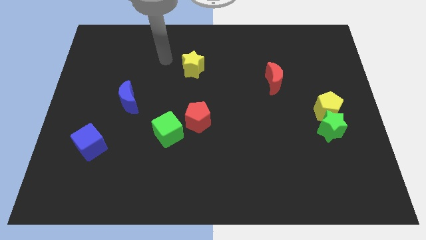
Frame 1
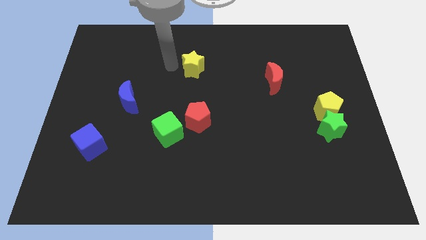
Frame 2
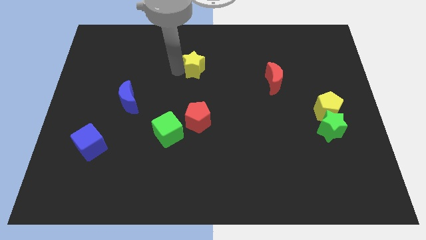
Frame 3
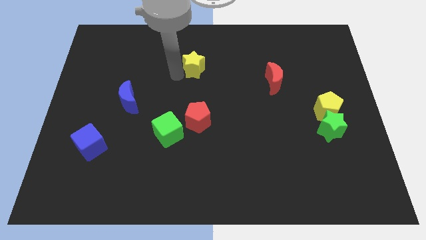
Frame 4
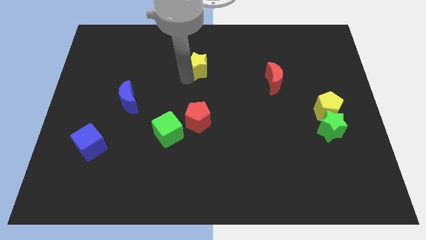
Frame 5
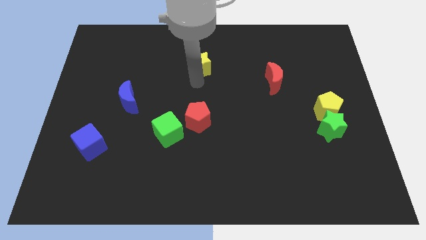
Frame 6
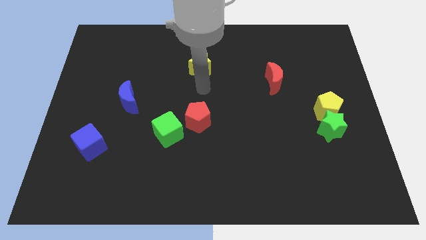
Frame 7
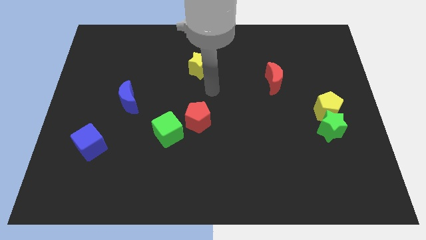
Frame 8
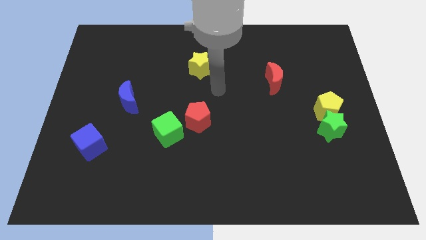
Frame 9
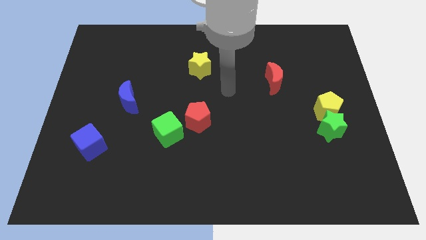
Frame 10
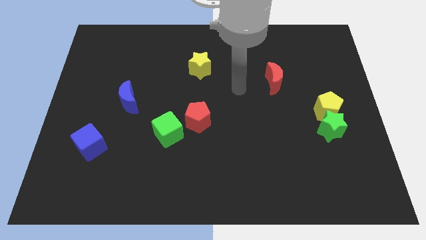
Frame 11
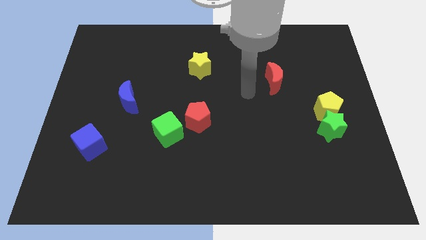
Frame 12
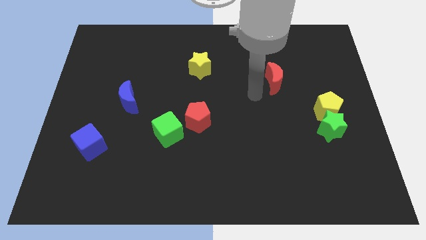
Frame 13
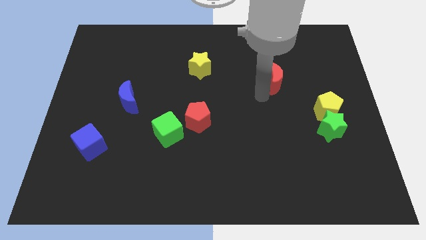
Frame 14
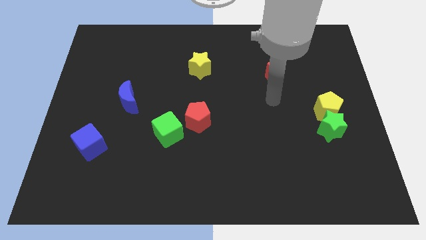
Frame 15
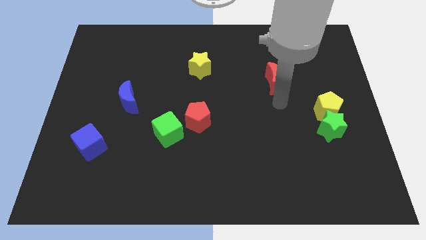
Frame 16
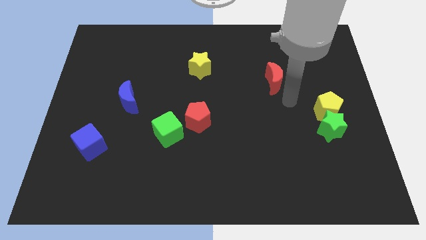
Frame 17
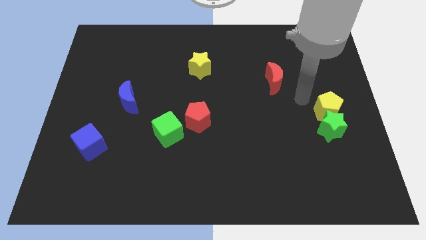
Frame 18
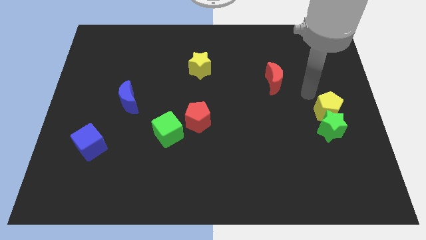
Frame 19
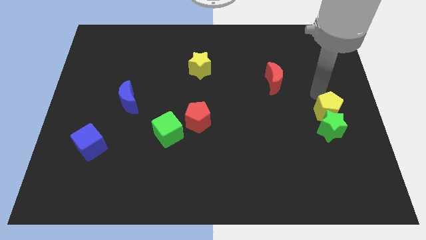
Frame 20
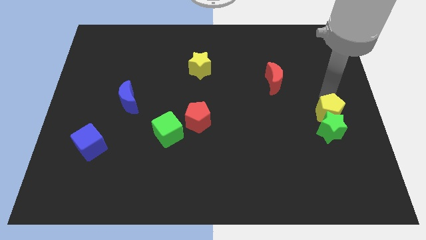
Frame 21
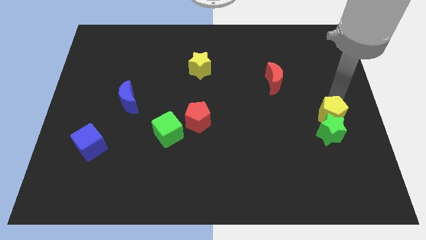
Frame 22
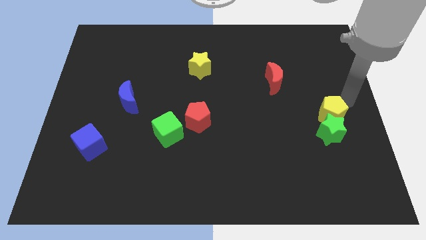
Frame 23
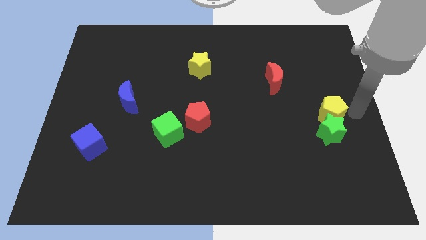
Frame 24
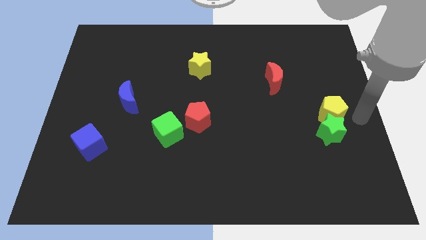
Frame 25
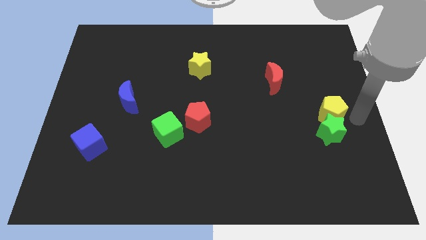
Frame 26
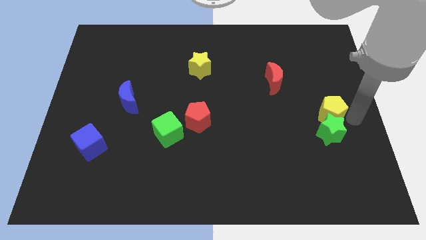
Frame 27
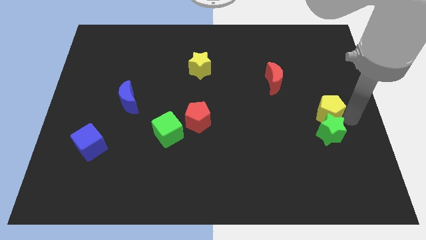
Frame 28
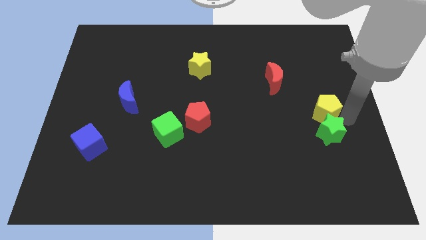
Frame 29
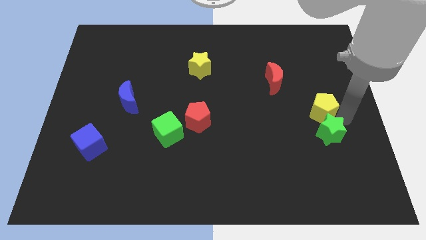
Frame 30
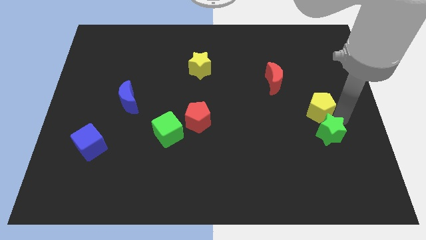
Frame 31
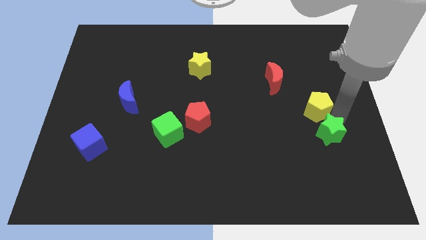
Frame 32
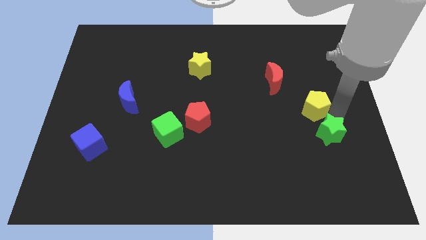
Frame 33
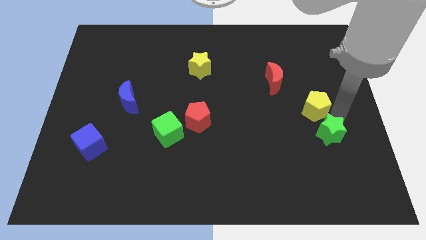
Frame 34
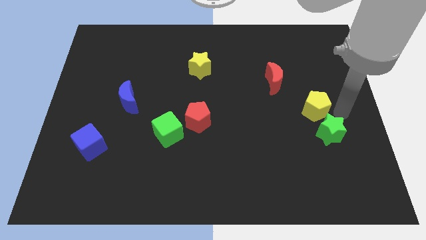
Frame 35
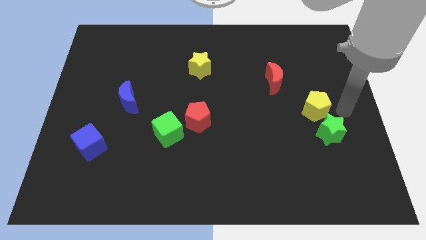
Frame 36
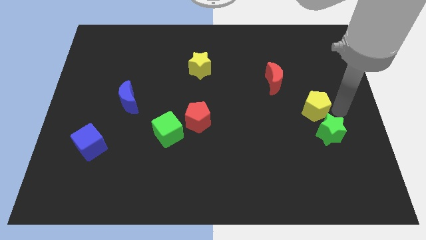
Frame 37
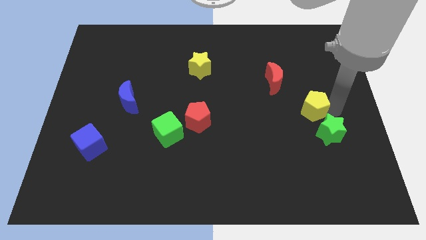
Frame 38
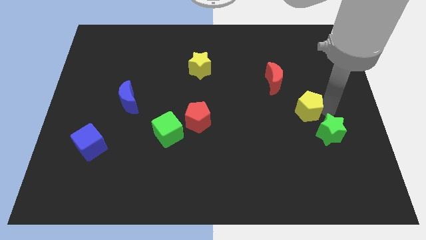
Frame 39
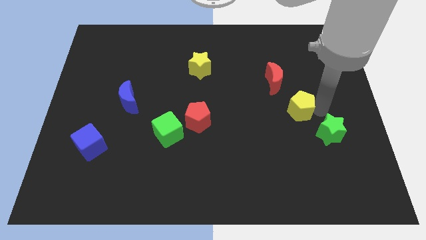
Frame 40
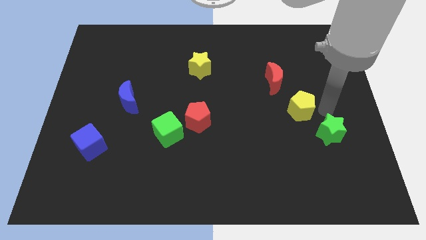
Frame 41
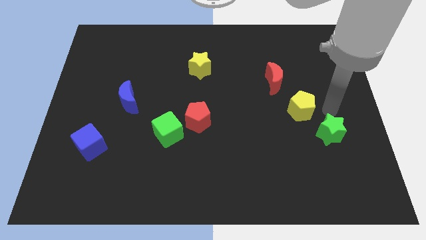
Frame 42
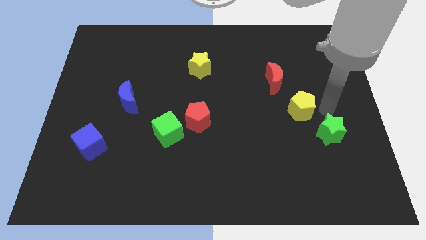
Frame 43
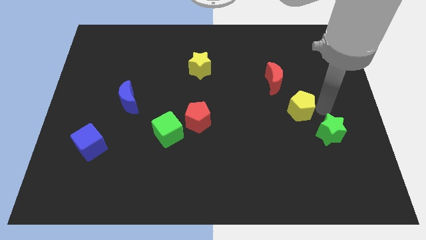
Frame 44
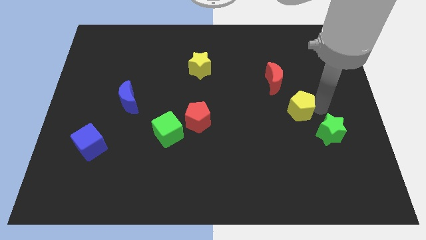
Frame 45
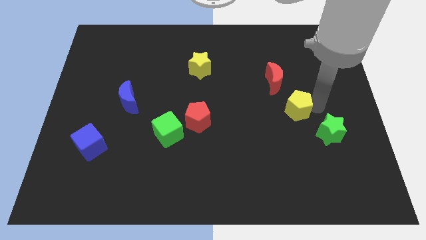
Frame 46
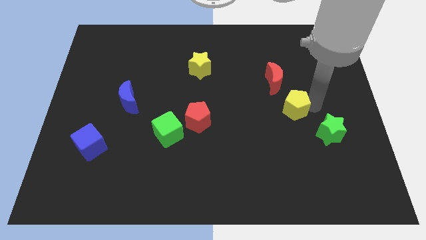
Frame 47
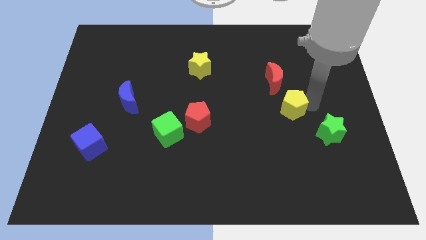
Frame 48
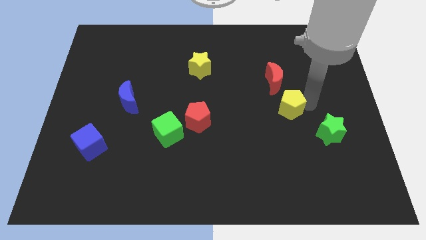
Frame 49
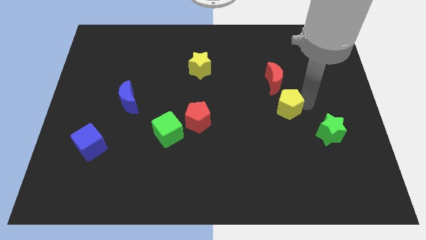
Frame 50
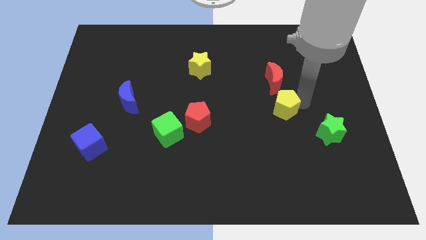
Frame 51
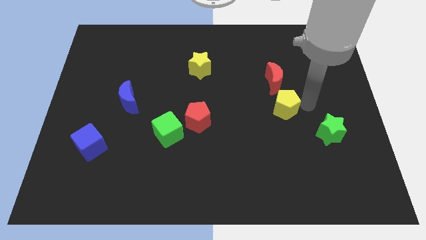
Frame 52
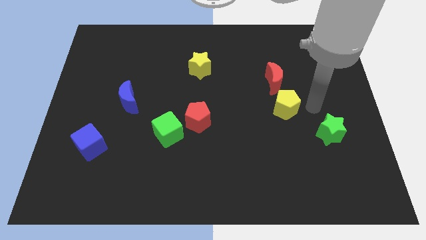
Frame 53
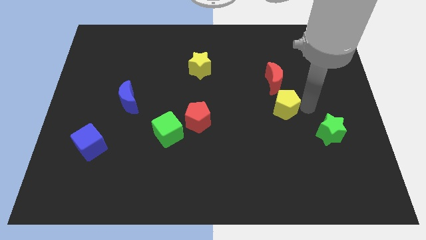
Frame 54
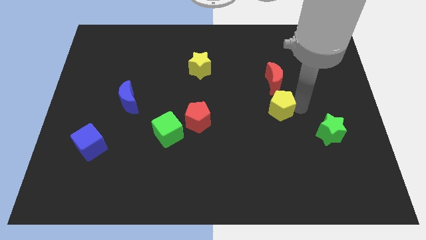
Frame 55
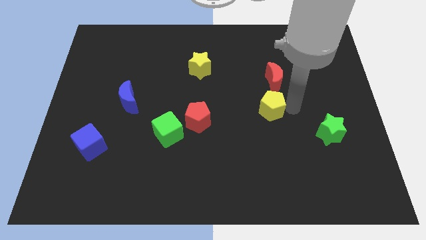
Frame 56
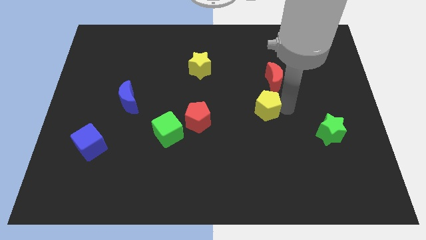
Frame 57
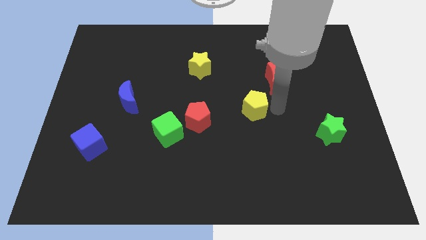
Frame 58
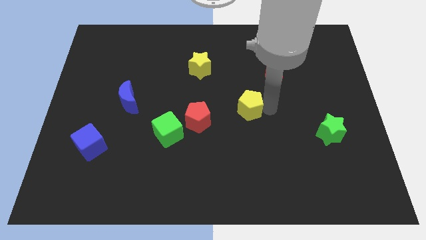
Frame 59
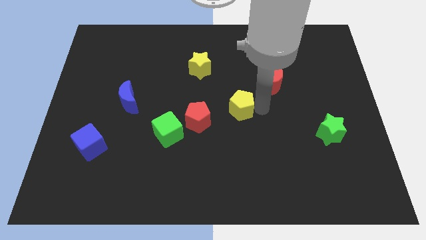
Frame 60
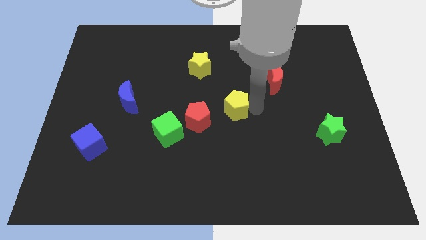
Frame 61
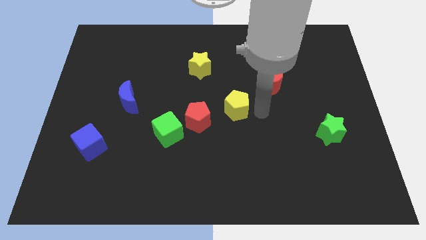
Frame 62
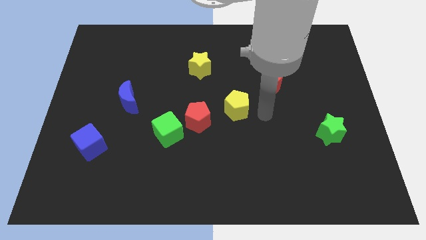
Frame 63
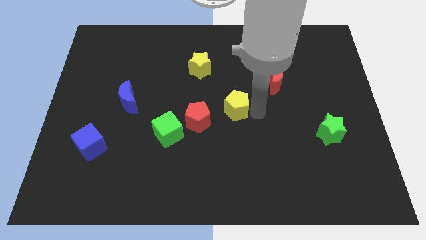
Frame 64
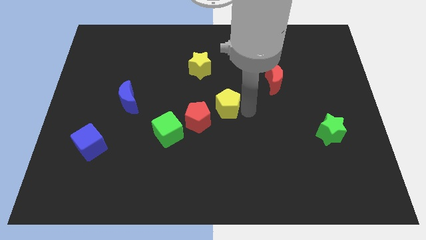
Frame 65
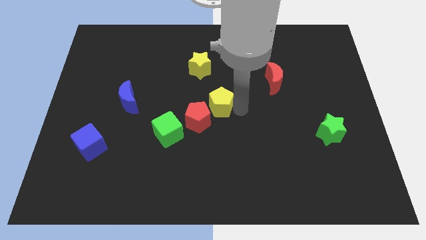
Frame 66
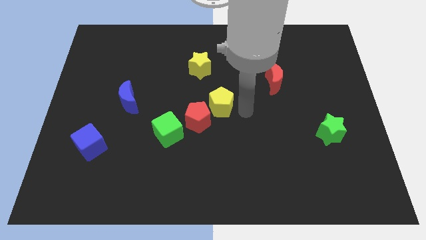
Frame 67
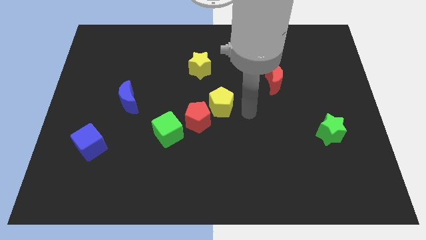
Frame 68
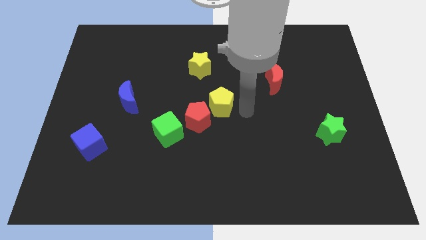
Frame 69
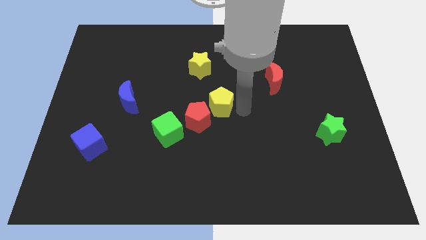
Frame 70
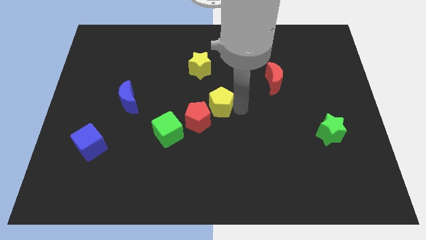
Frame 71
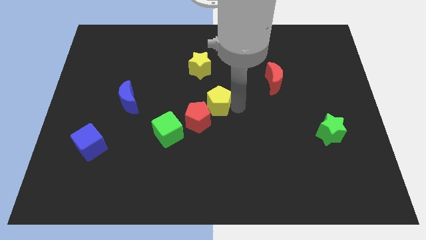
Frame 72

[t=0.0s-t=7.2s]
push the yellow pentagon to the bottom side of the yellow star
